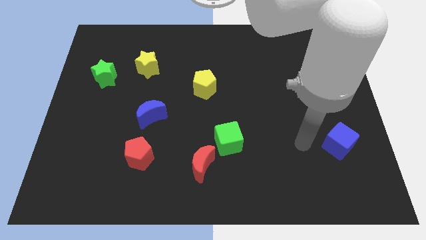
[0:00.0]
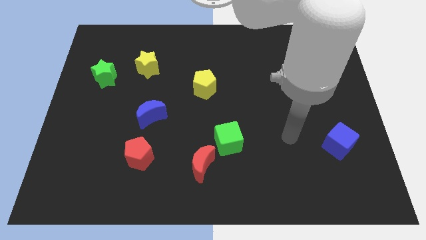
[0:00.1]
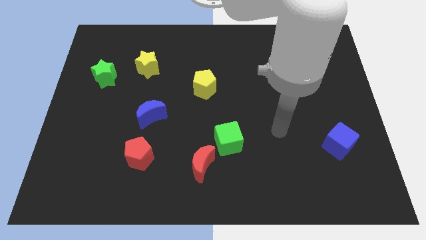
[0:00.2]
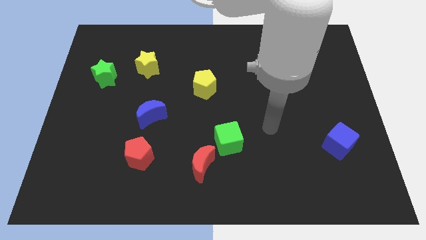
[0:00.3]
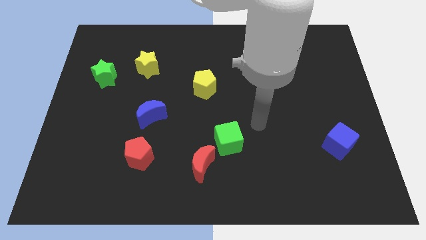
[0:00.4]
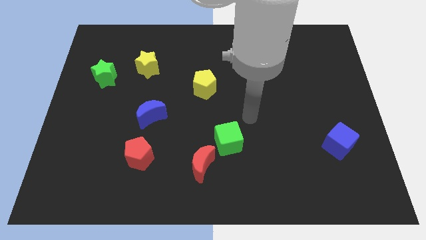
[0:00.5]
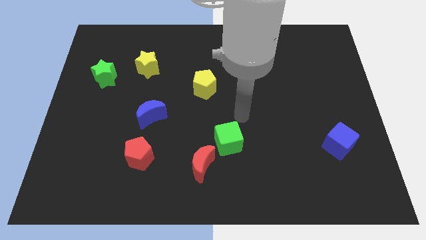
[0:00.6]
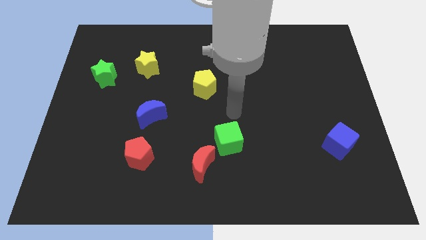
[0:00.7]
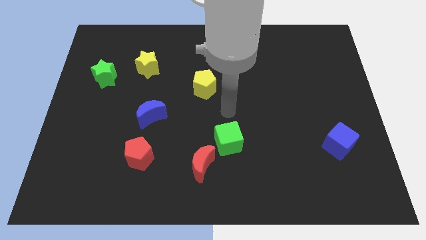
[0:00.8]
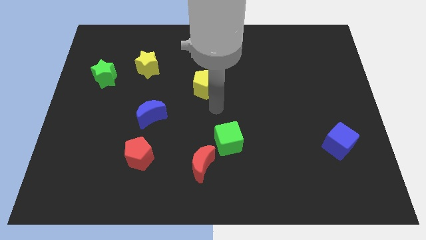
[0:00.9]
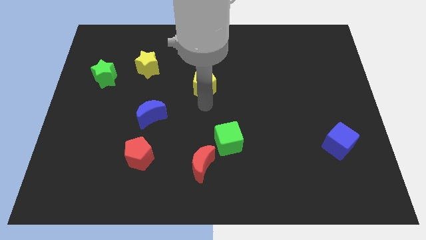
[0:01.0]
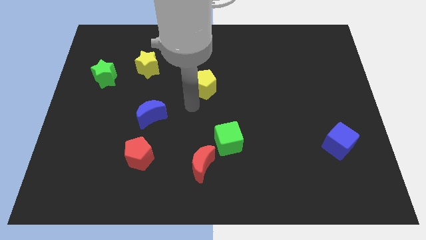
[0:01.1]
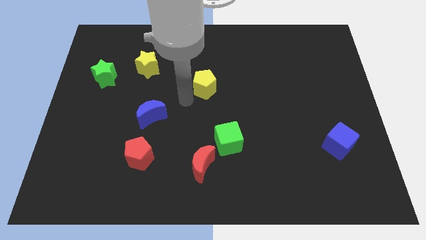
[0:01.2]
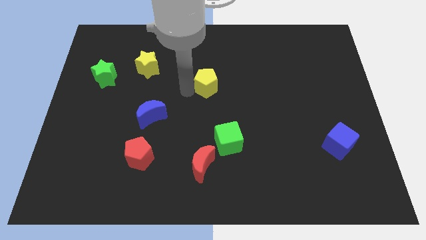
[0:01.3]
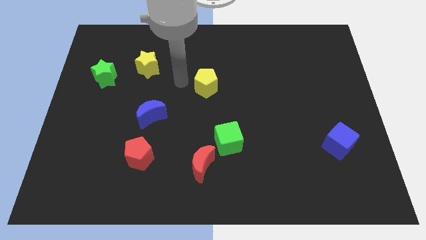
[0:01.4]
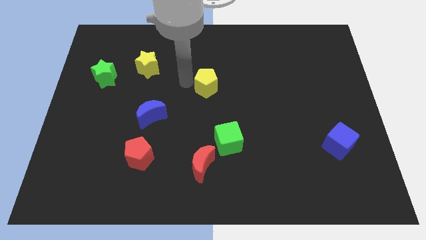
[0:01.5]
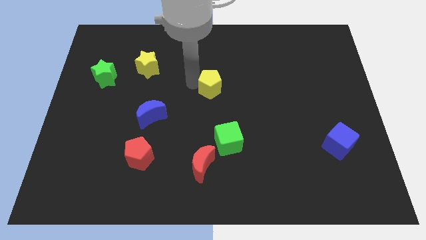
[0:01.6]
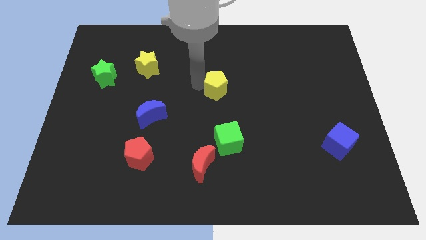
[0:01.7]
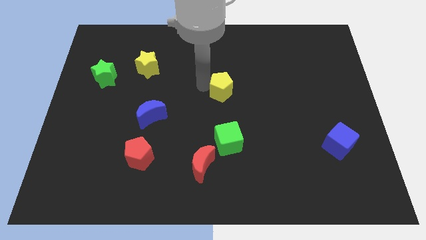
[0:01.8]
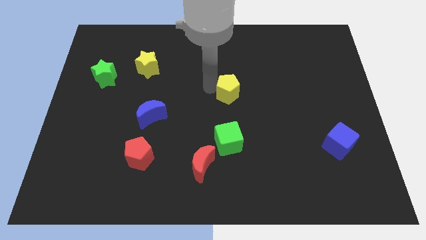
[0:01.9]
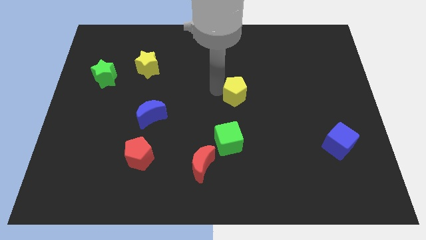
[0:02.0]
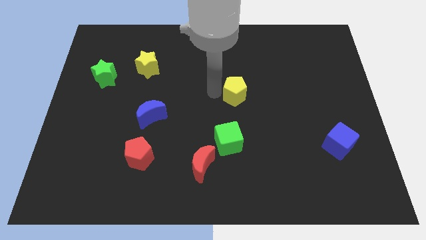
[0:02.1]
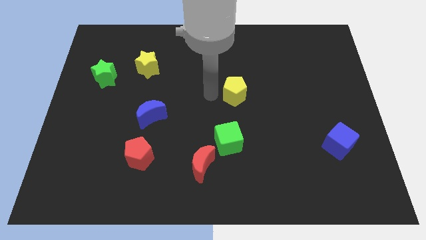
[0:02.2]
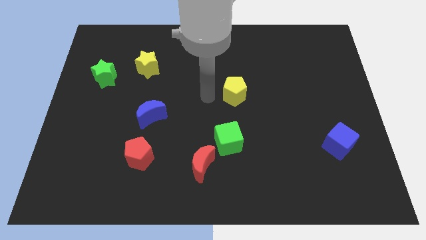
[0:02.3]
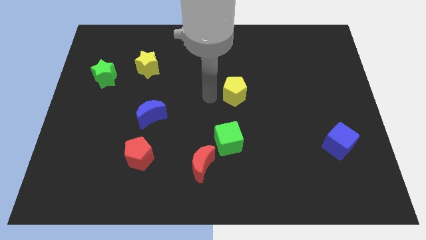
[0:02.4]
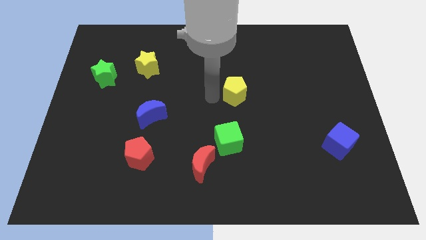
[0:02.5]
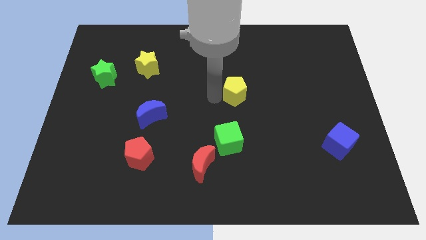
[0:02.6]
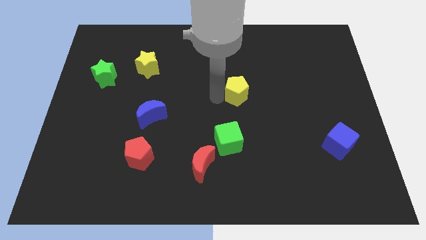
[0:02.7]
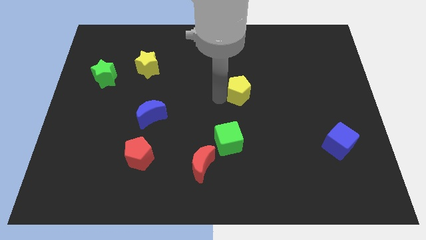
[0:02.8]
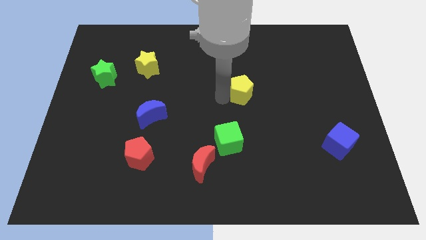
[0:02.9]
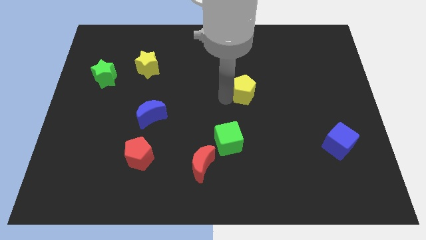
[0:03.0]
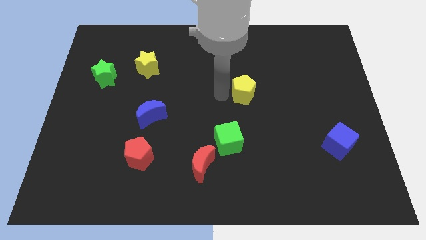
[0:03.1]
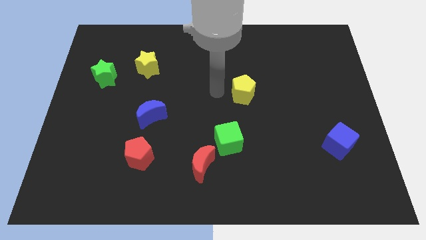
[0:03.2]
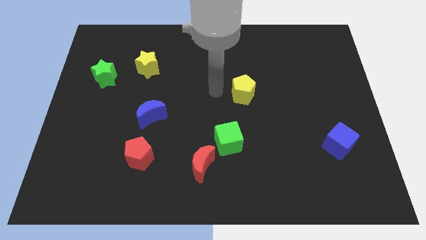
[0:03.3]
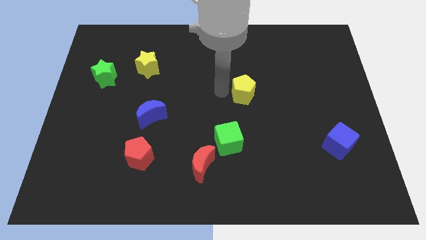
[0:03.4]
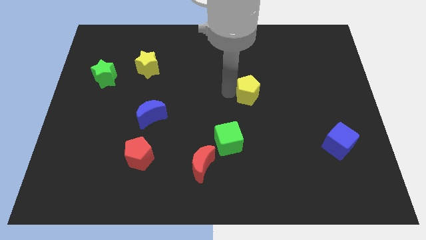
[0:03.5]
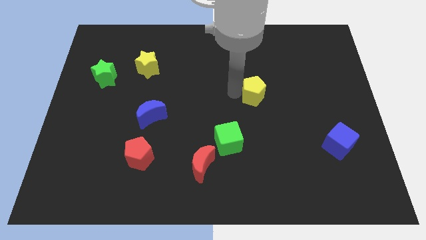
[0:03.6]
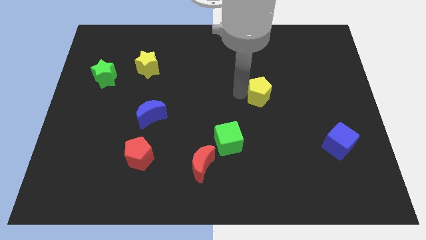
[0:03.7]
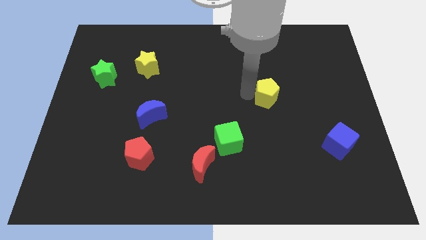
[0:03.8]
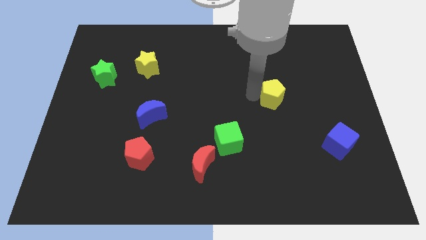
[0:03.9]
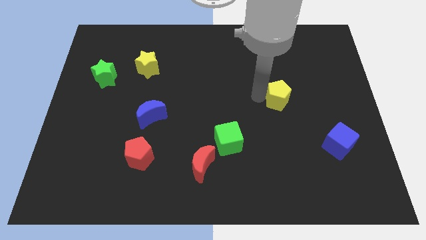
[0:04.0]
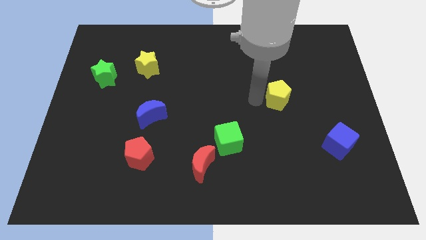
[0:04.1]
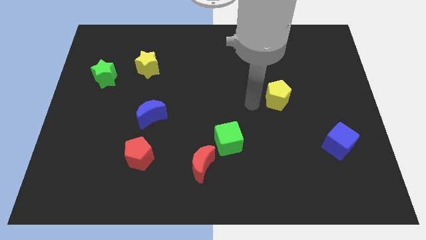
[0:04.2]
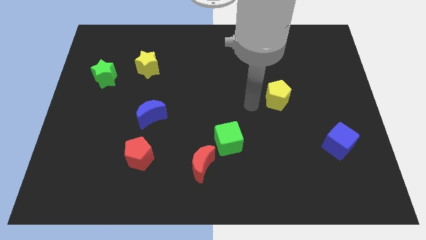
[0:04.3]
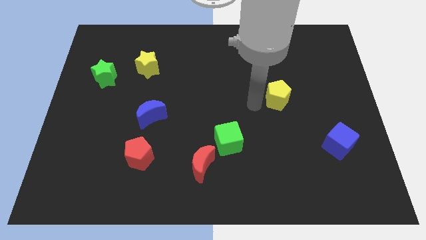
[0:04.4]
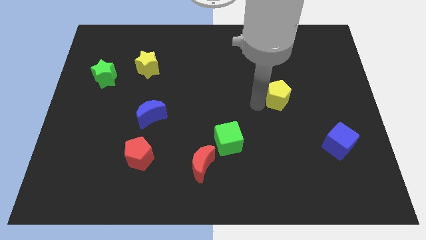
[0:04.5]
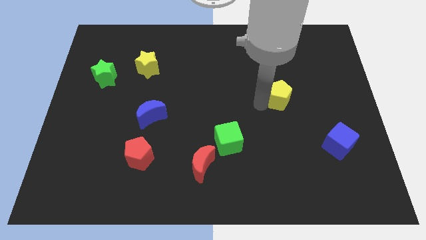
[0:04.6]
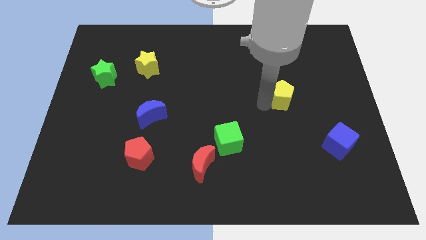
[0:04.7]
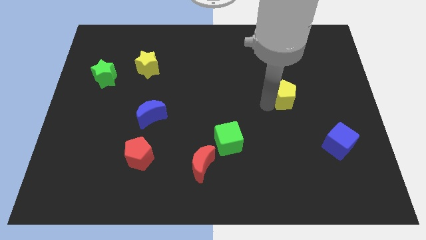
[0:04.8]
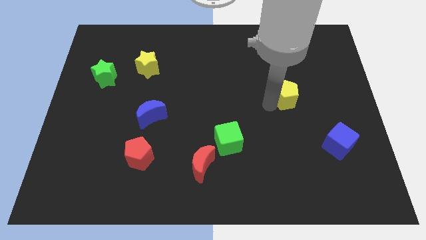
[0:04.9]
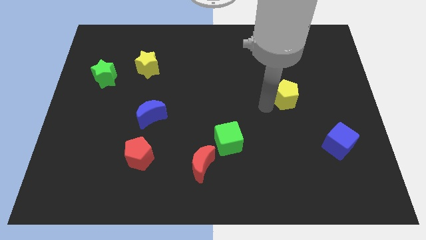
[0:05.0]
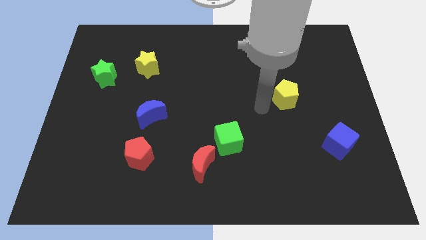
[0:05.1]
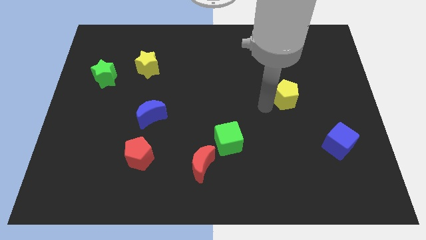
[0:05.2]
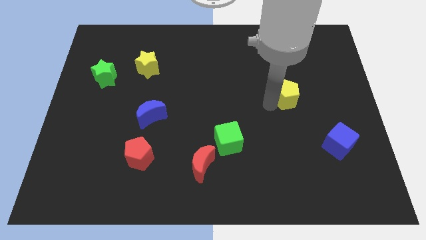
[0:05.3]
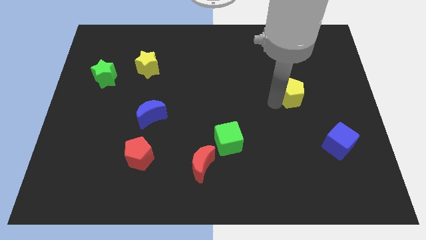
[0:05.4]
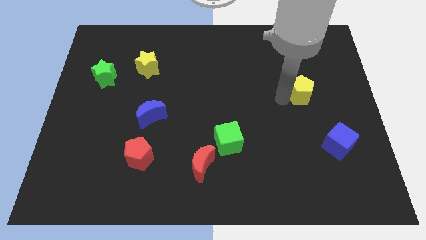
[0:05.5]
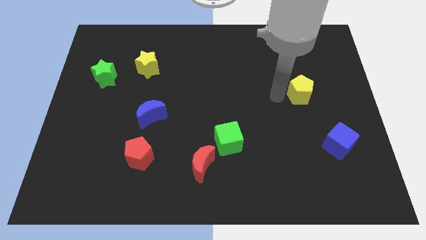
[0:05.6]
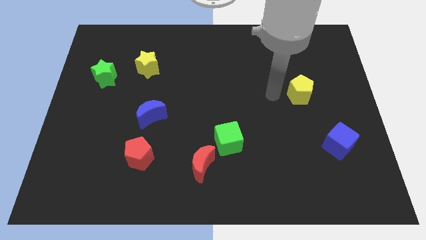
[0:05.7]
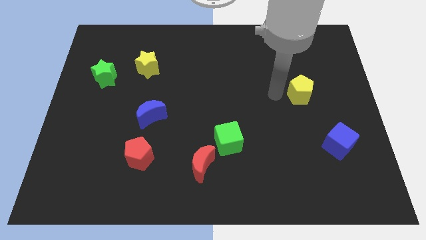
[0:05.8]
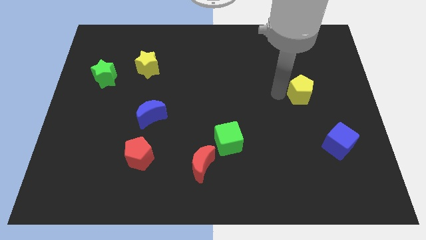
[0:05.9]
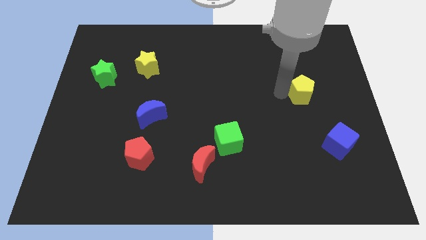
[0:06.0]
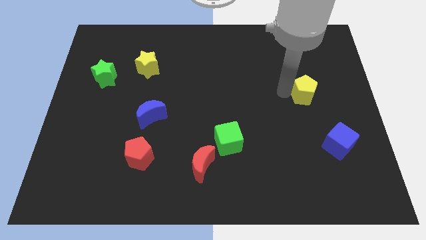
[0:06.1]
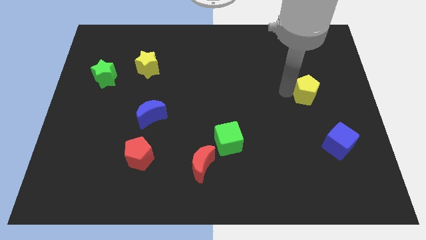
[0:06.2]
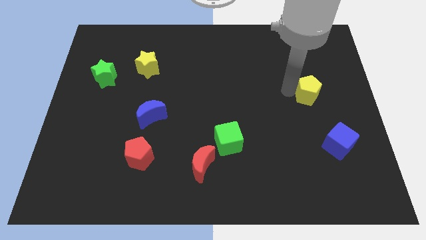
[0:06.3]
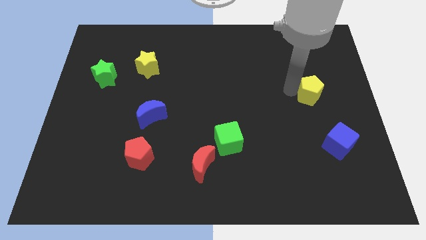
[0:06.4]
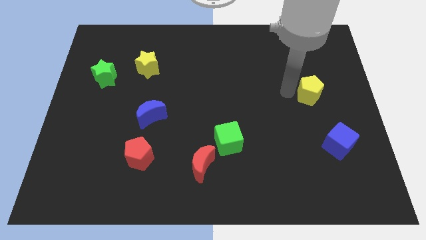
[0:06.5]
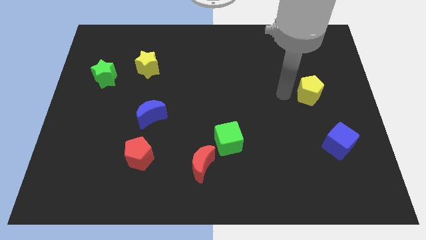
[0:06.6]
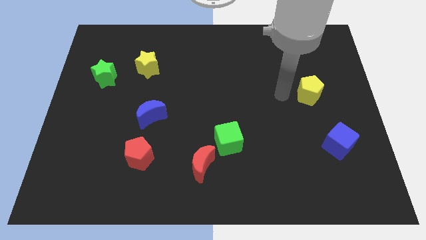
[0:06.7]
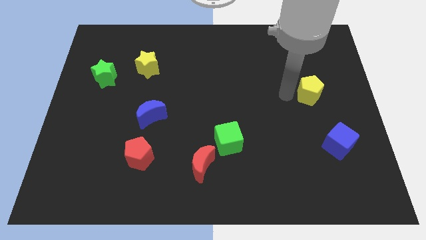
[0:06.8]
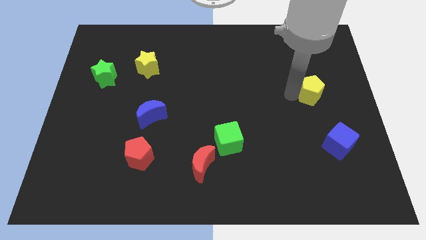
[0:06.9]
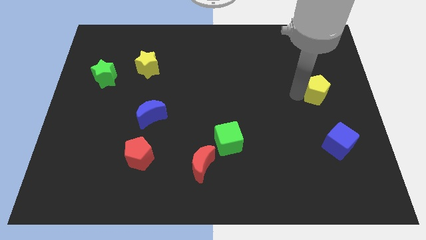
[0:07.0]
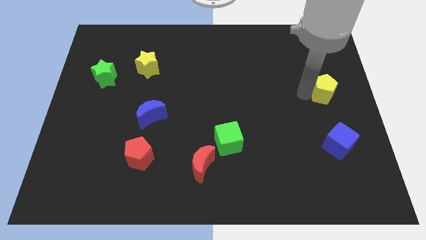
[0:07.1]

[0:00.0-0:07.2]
put the yellow pentagon to the right side

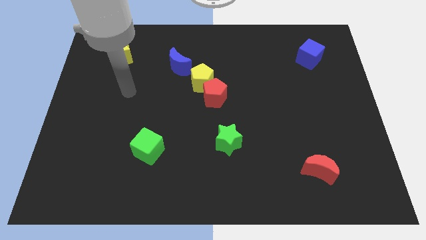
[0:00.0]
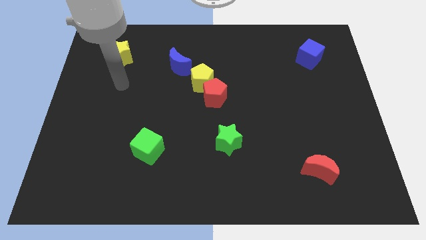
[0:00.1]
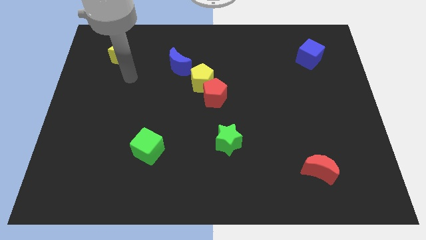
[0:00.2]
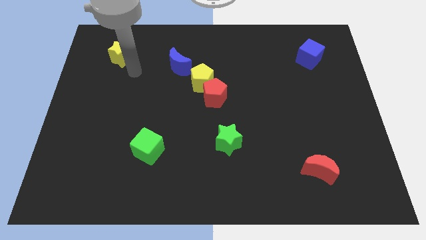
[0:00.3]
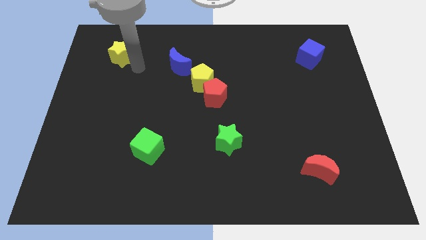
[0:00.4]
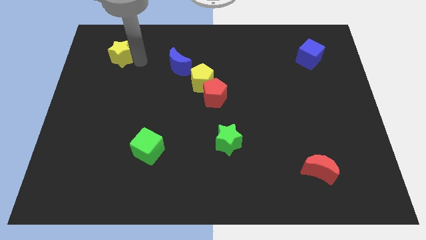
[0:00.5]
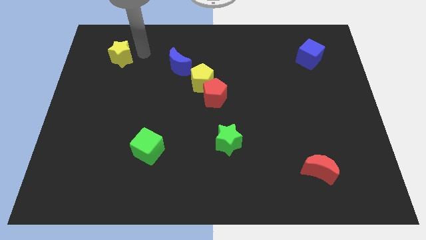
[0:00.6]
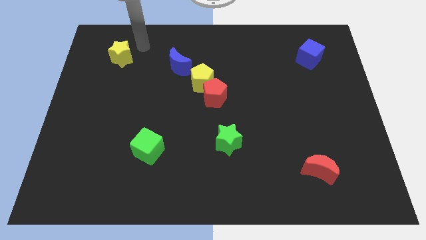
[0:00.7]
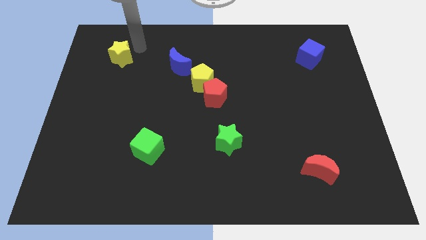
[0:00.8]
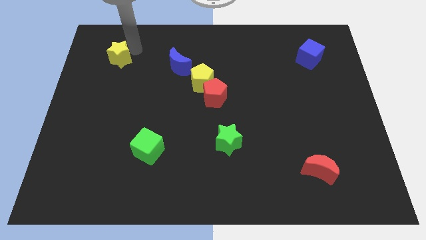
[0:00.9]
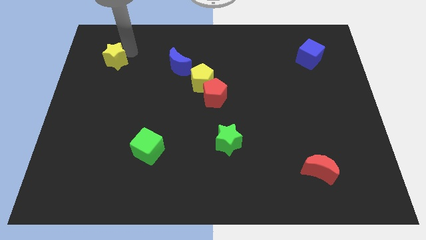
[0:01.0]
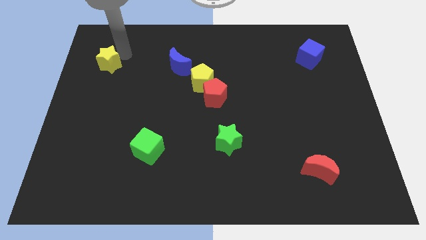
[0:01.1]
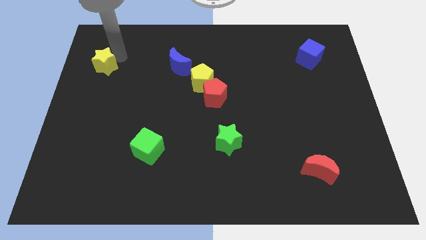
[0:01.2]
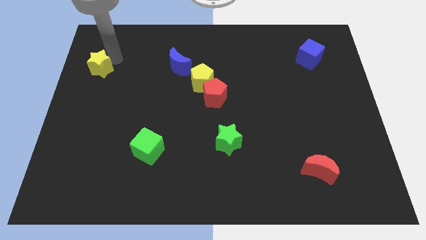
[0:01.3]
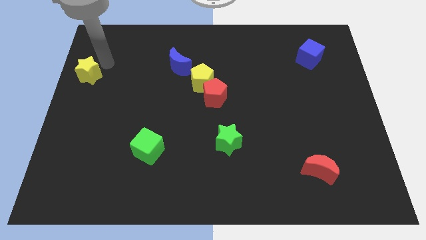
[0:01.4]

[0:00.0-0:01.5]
slide the yellow star to the left side
